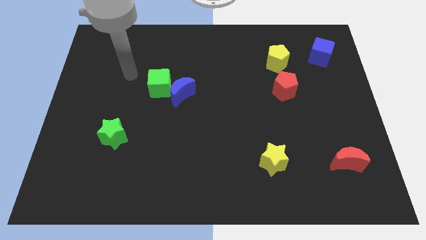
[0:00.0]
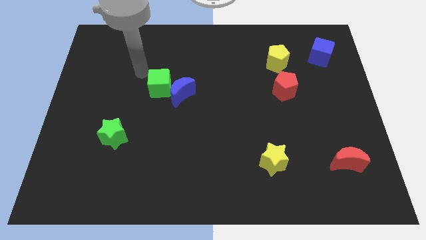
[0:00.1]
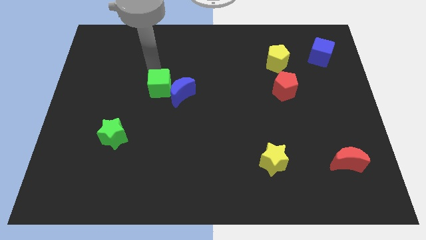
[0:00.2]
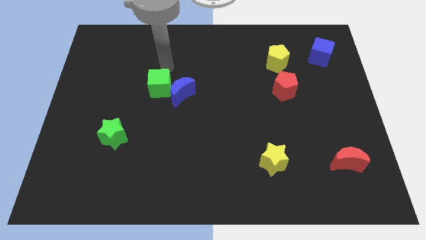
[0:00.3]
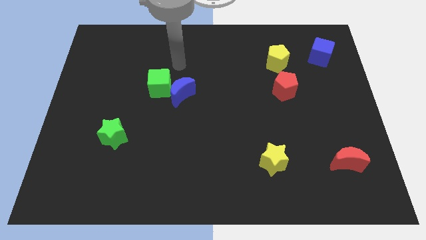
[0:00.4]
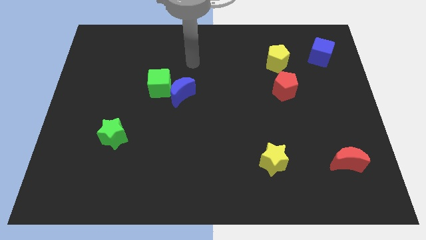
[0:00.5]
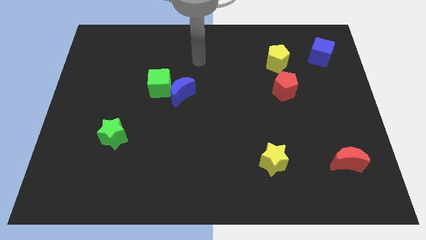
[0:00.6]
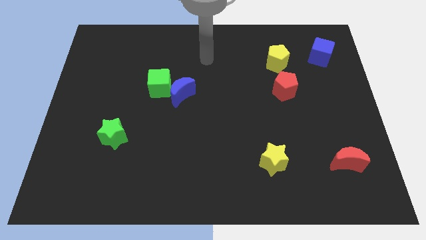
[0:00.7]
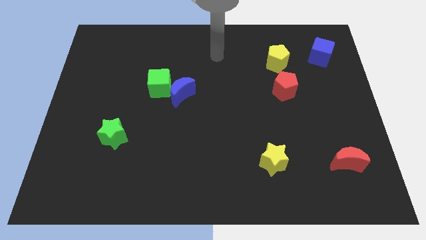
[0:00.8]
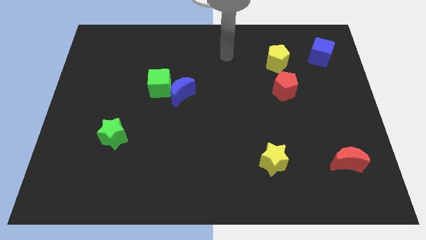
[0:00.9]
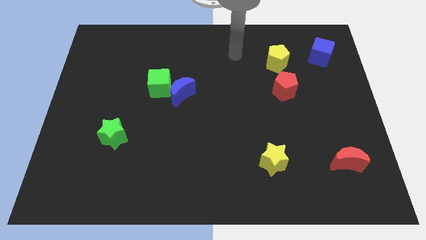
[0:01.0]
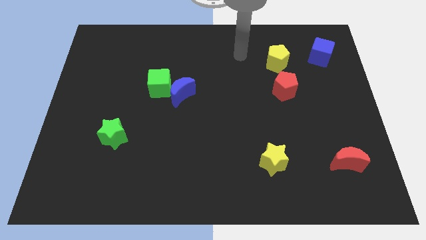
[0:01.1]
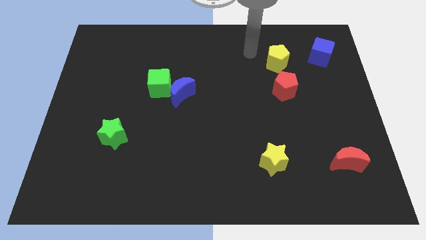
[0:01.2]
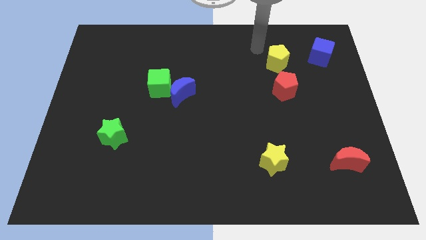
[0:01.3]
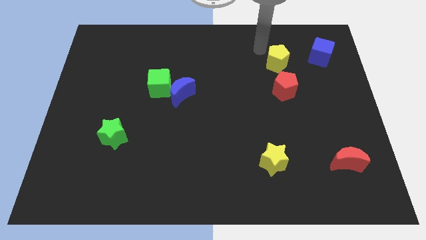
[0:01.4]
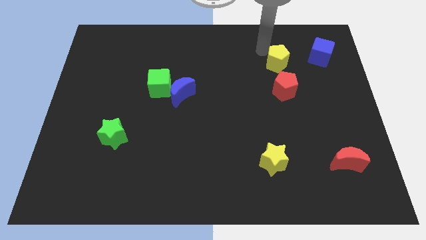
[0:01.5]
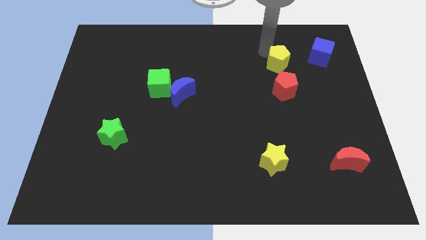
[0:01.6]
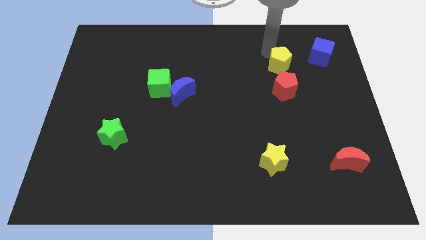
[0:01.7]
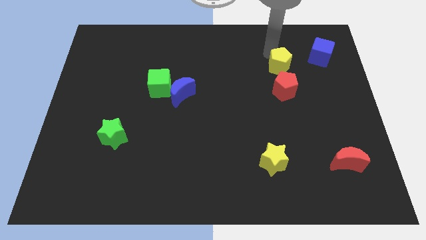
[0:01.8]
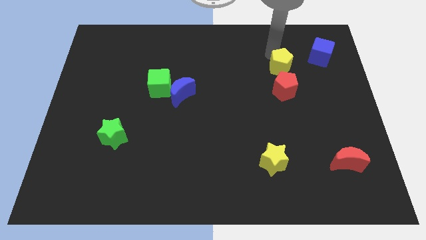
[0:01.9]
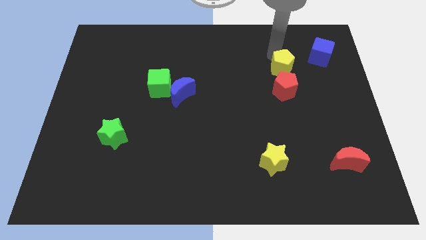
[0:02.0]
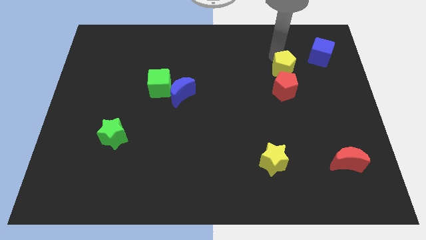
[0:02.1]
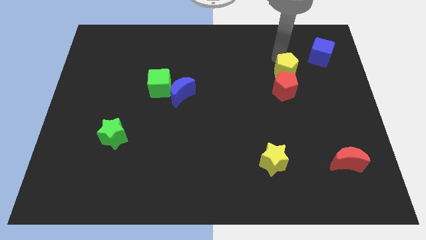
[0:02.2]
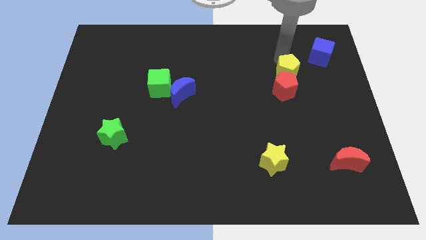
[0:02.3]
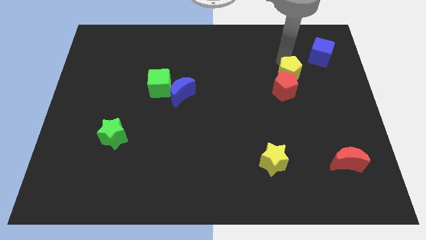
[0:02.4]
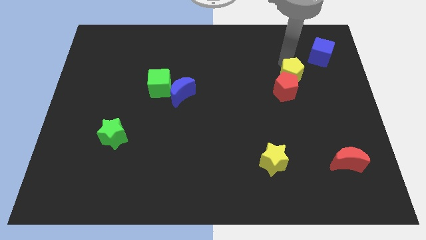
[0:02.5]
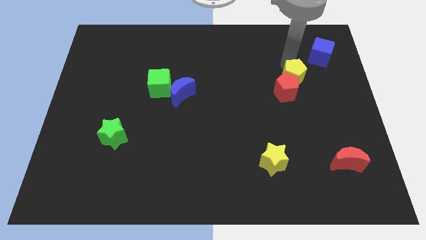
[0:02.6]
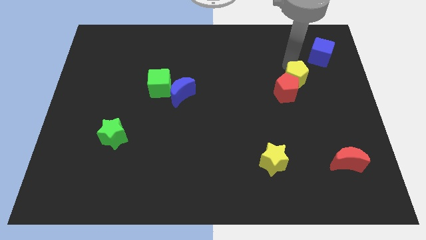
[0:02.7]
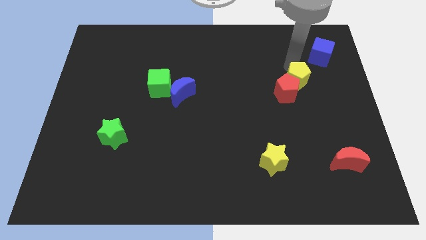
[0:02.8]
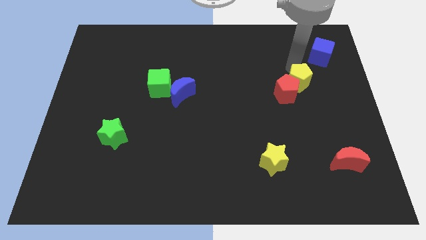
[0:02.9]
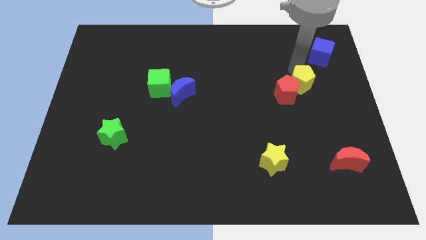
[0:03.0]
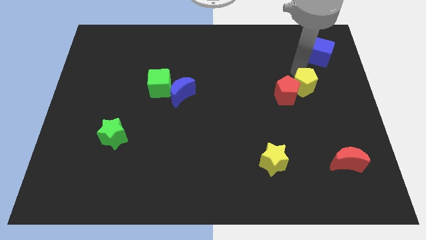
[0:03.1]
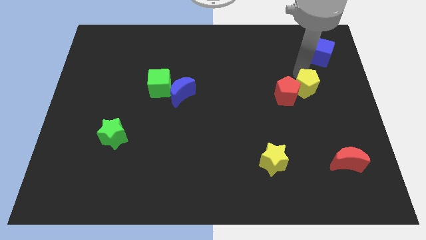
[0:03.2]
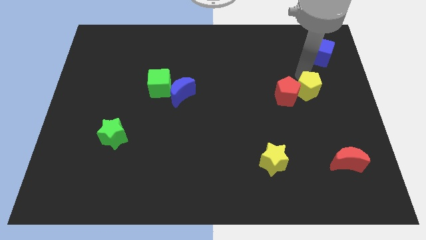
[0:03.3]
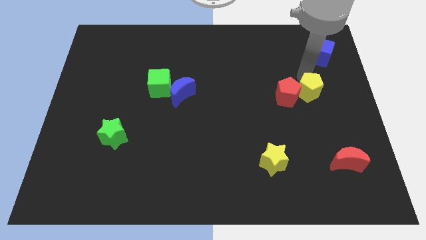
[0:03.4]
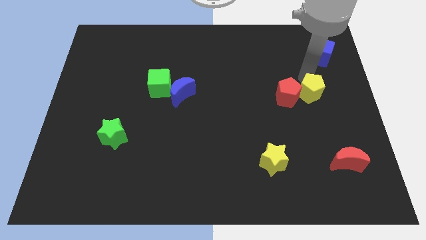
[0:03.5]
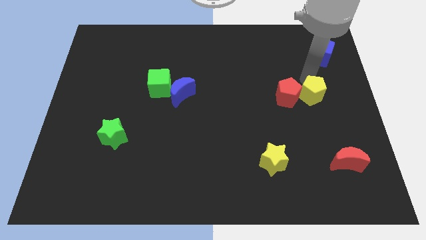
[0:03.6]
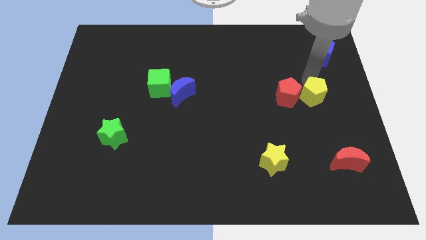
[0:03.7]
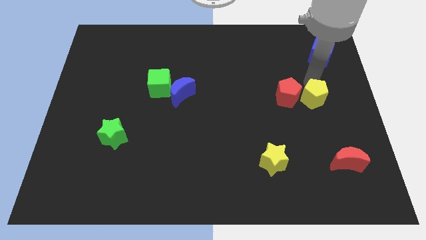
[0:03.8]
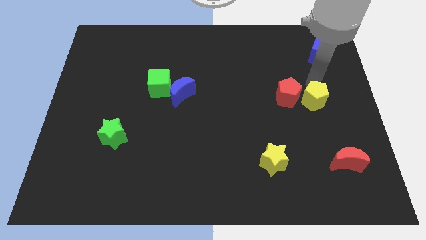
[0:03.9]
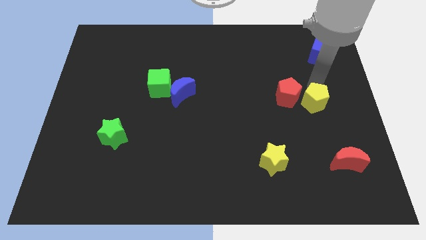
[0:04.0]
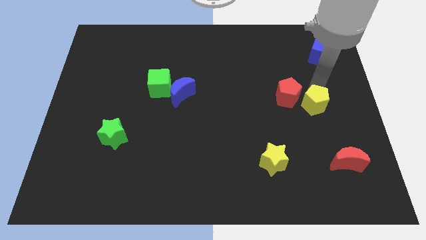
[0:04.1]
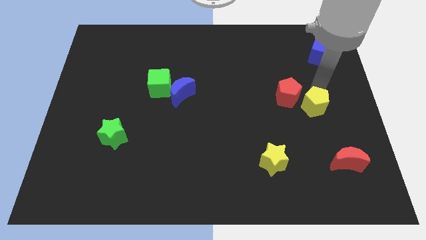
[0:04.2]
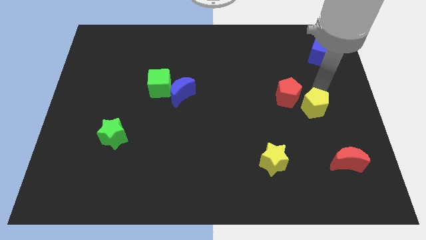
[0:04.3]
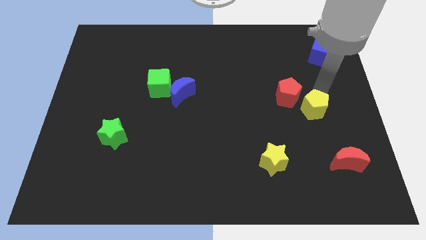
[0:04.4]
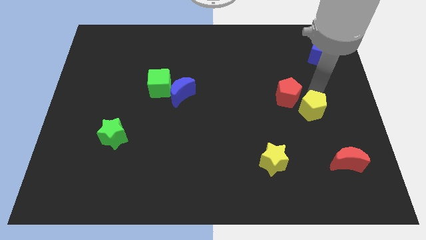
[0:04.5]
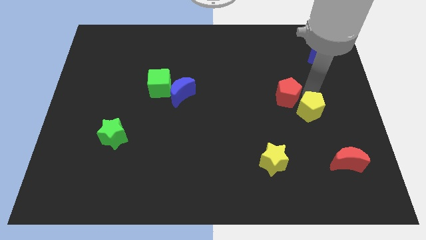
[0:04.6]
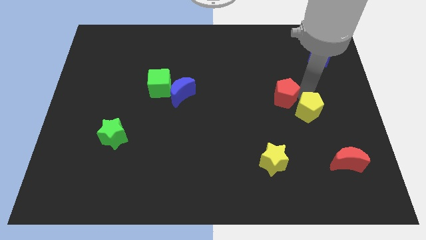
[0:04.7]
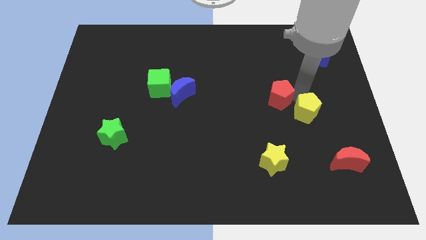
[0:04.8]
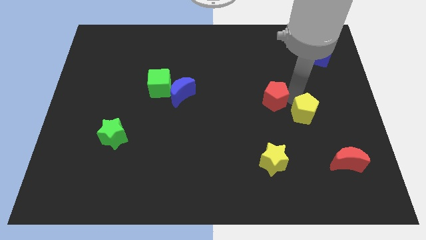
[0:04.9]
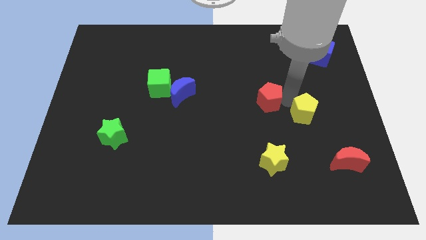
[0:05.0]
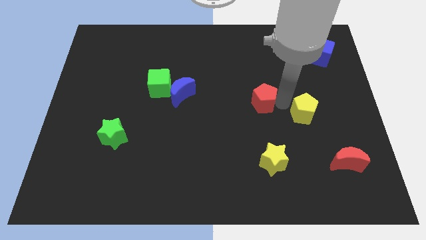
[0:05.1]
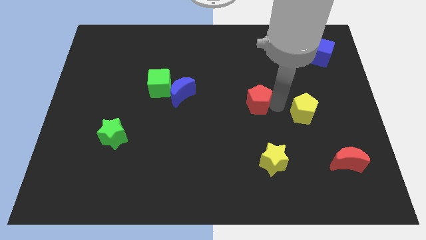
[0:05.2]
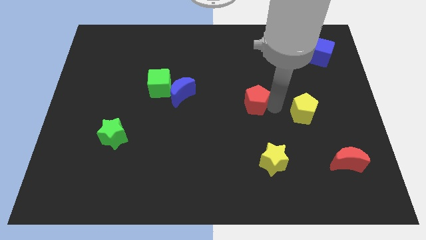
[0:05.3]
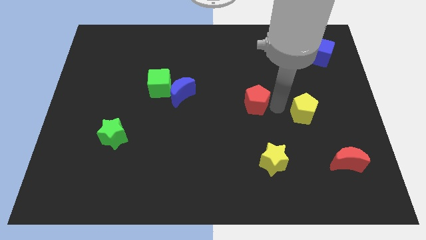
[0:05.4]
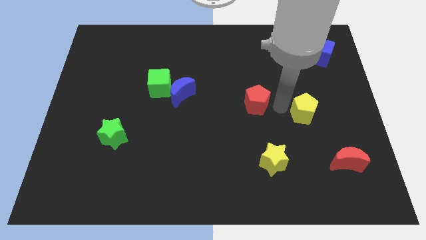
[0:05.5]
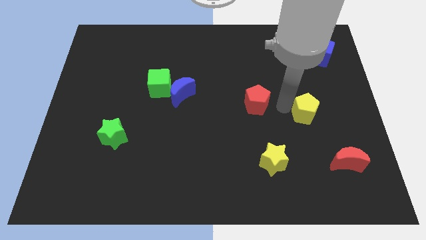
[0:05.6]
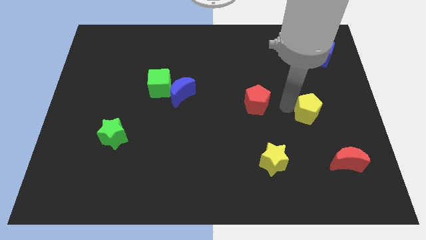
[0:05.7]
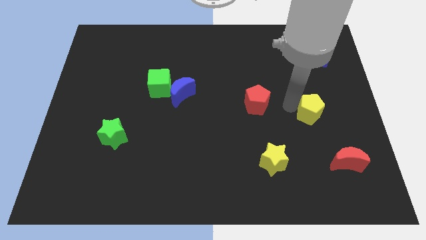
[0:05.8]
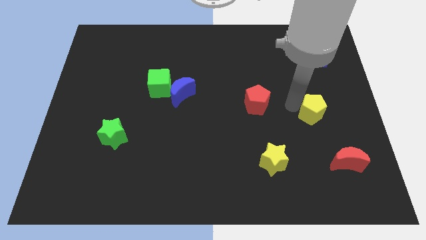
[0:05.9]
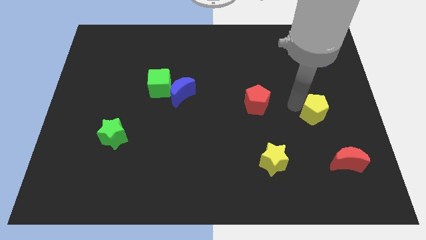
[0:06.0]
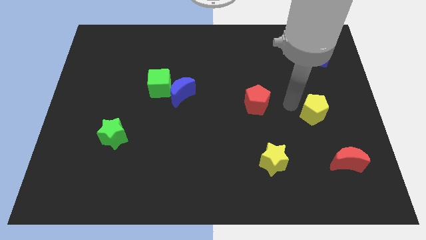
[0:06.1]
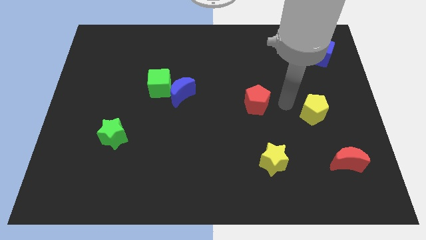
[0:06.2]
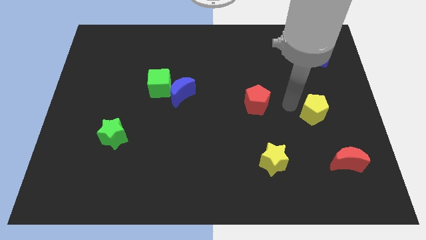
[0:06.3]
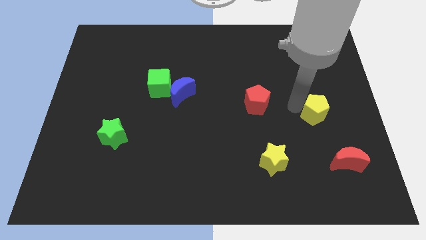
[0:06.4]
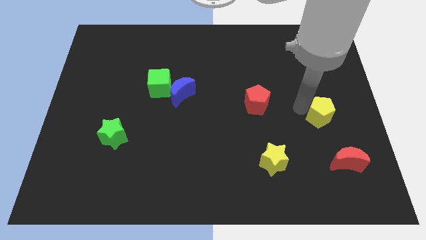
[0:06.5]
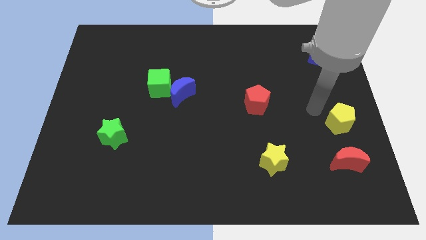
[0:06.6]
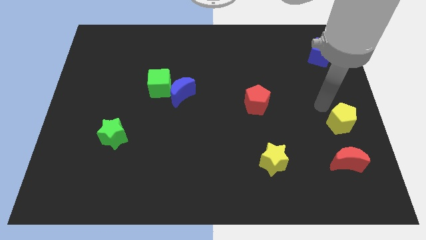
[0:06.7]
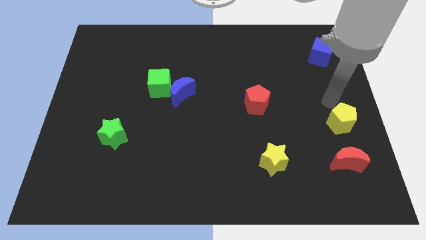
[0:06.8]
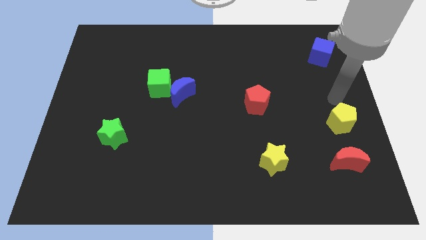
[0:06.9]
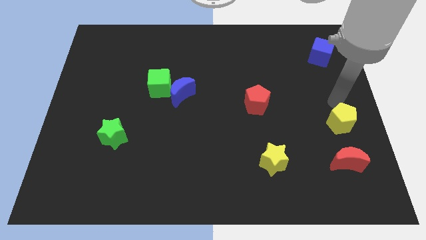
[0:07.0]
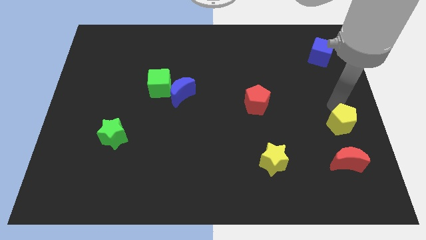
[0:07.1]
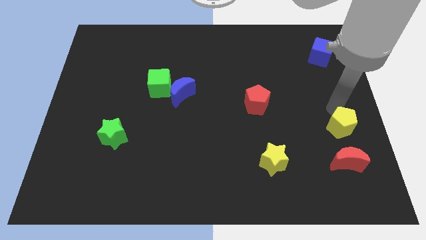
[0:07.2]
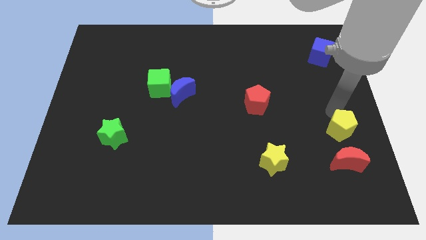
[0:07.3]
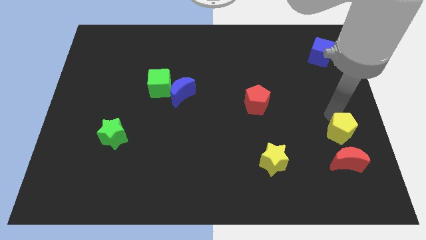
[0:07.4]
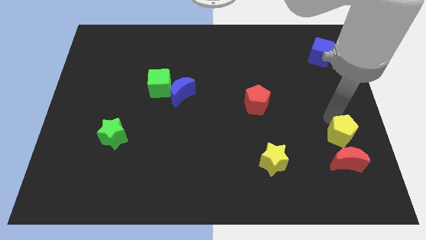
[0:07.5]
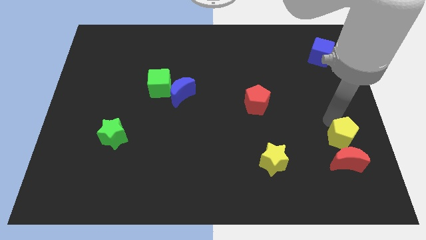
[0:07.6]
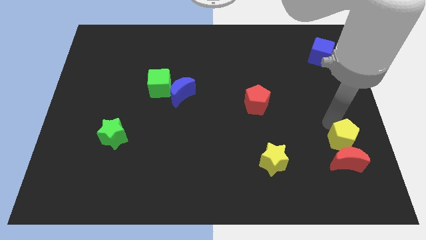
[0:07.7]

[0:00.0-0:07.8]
slide the yellow pentagon next to the red moon
